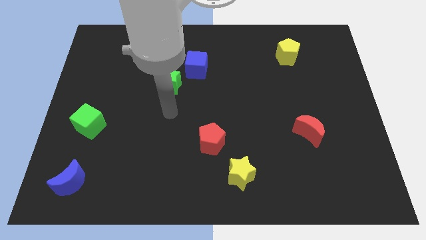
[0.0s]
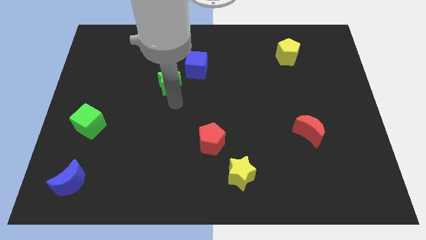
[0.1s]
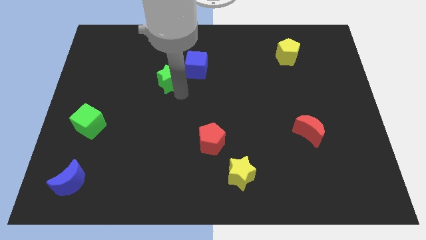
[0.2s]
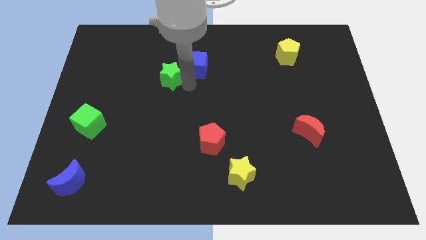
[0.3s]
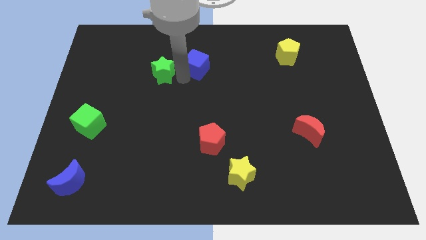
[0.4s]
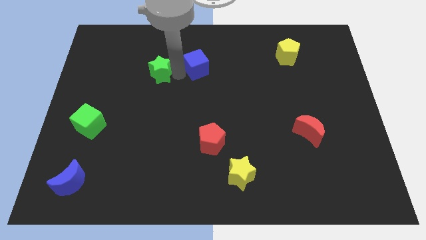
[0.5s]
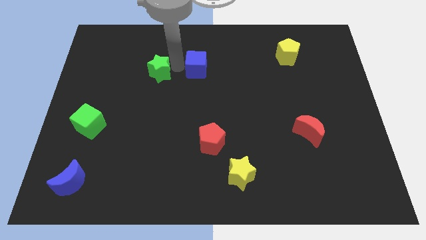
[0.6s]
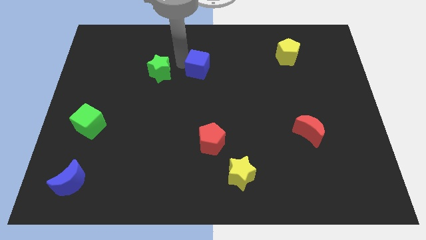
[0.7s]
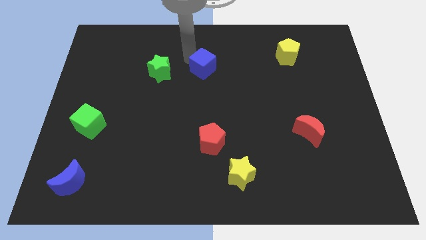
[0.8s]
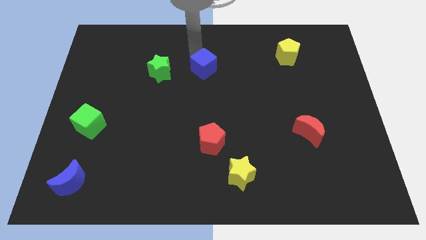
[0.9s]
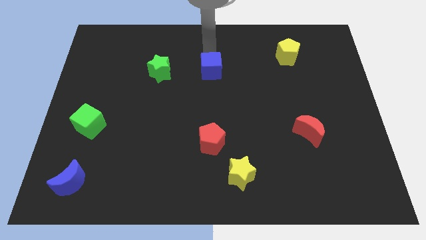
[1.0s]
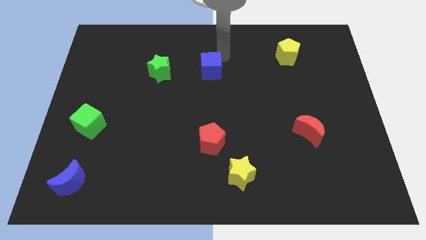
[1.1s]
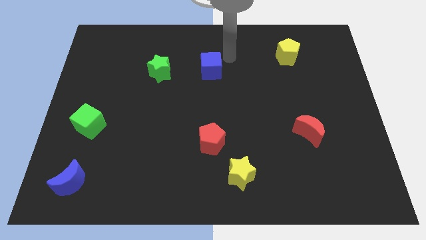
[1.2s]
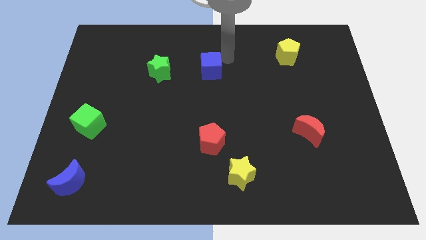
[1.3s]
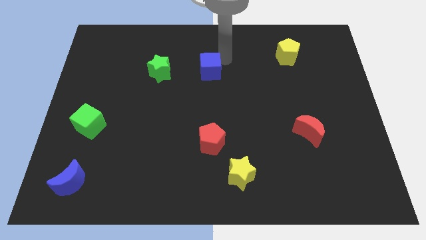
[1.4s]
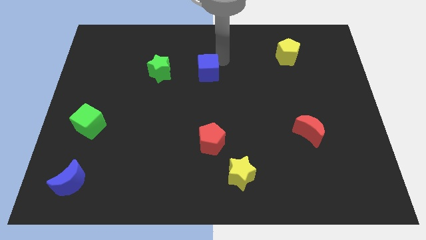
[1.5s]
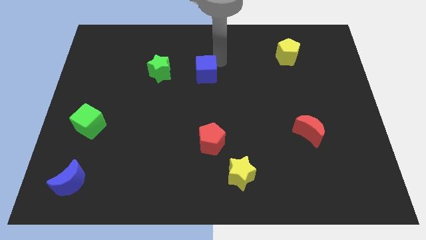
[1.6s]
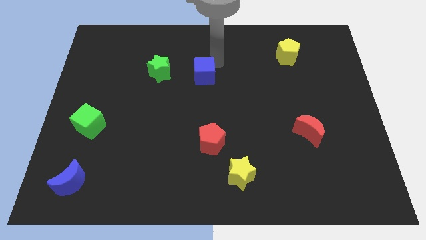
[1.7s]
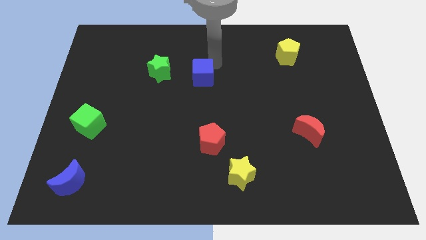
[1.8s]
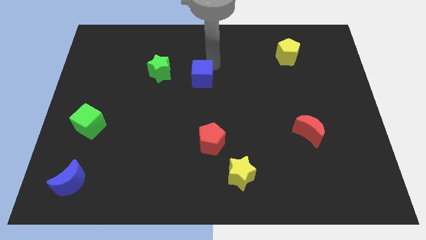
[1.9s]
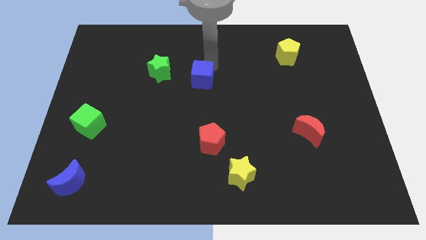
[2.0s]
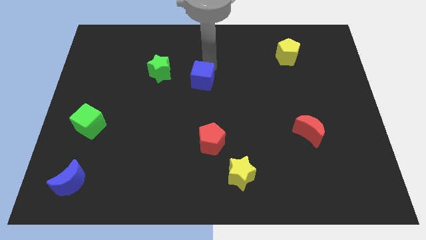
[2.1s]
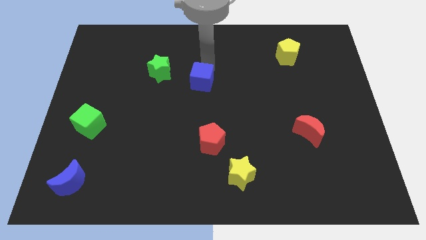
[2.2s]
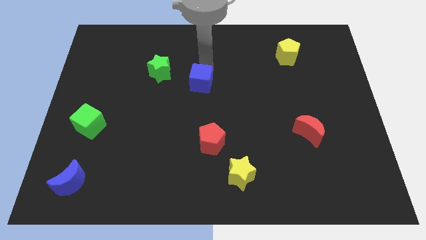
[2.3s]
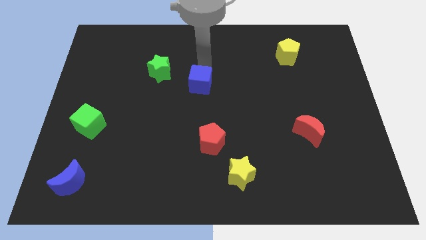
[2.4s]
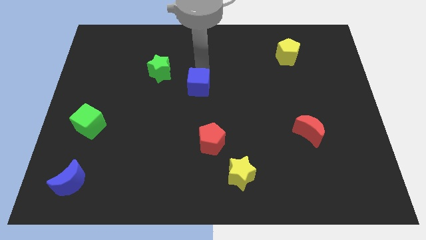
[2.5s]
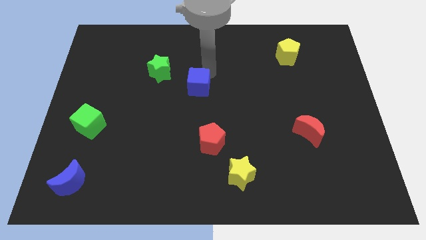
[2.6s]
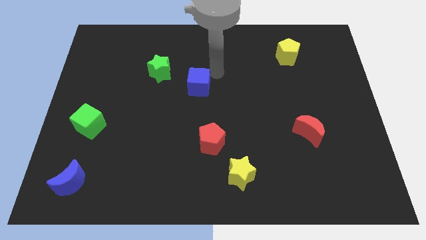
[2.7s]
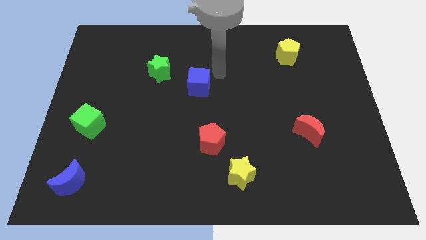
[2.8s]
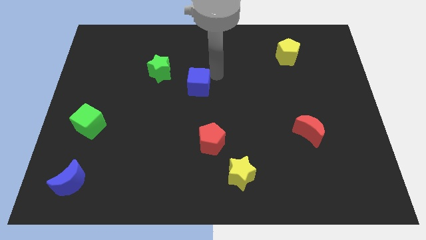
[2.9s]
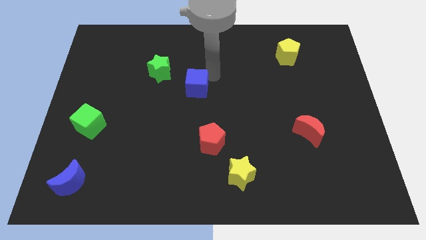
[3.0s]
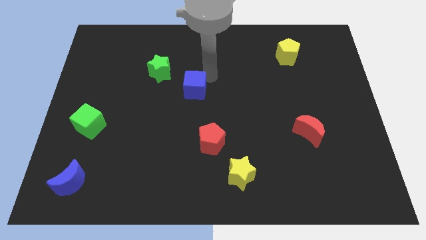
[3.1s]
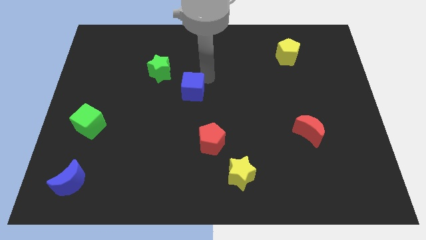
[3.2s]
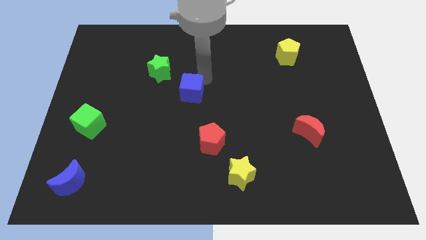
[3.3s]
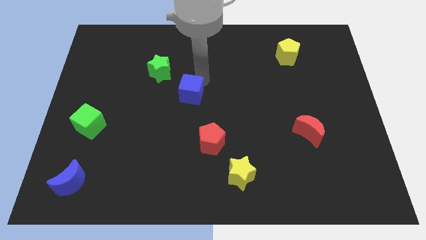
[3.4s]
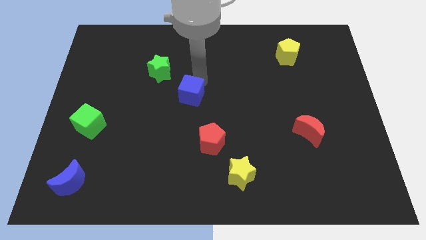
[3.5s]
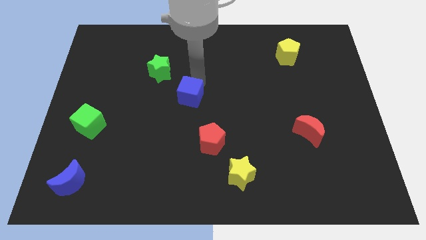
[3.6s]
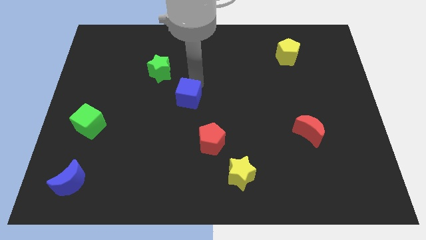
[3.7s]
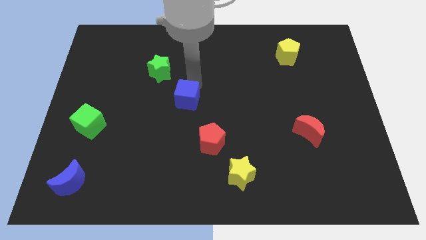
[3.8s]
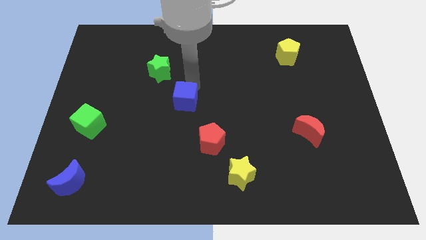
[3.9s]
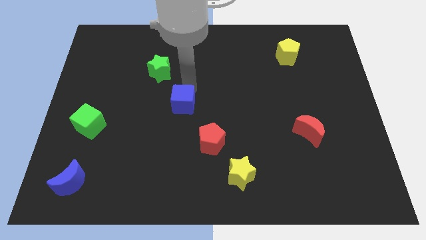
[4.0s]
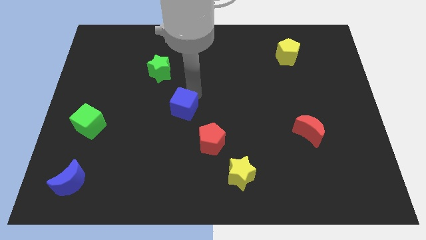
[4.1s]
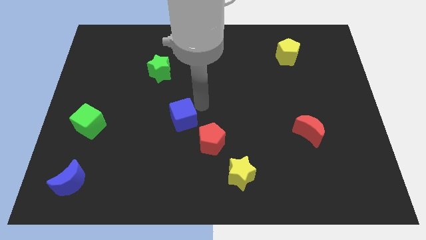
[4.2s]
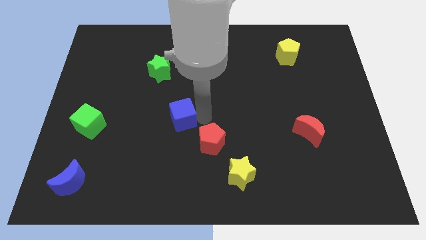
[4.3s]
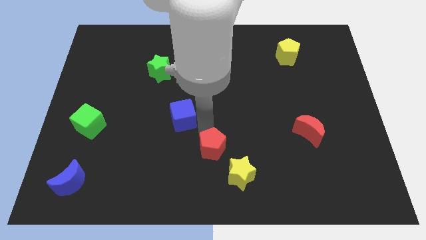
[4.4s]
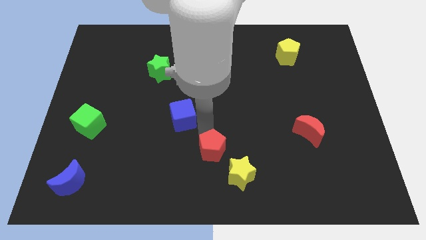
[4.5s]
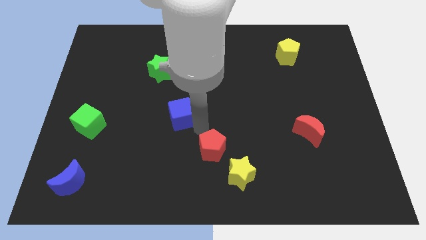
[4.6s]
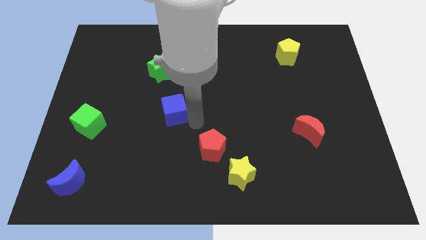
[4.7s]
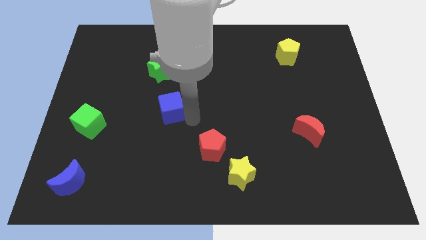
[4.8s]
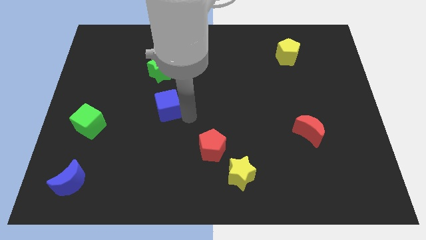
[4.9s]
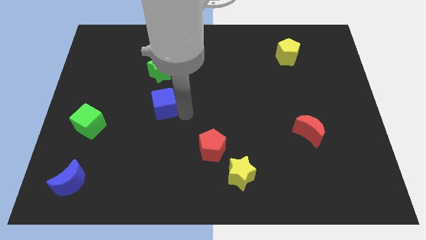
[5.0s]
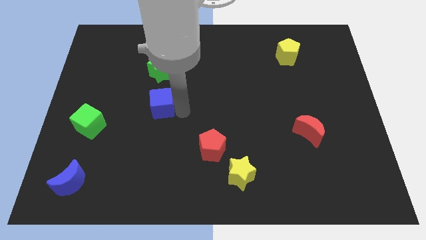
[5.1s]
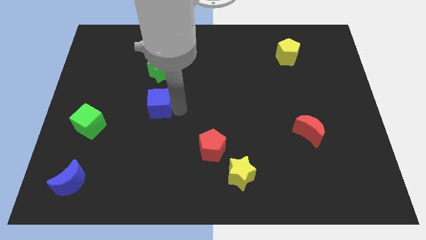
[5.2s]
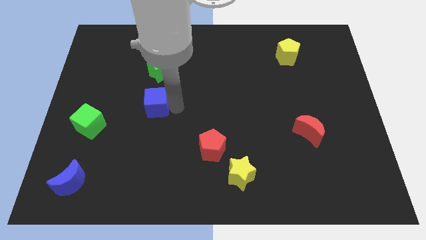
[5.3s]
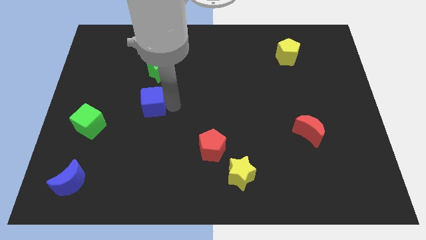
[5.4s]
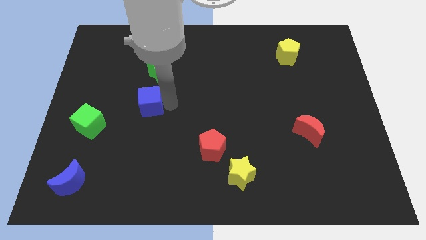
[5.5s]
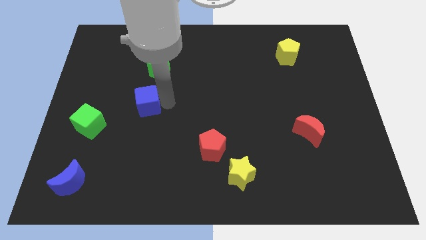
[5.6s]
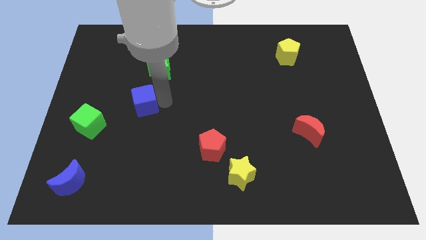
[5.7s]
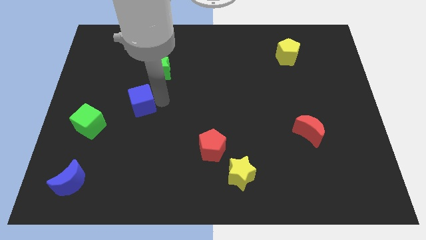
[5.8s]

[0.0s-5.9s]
move the blue cube to the bottom left of the green star

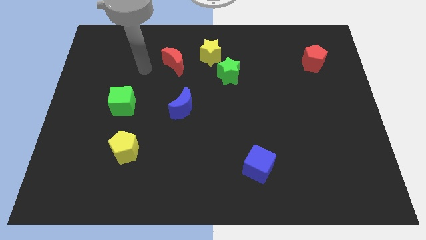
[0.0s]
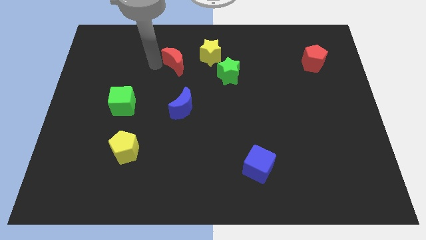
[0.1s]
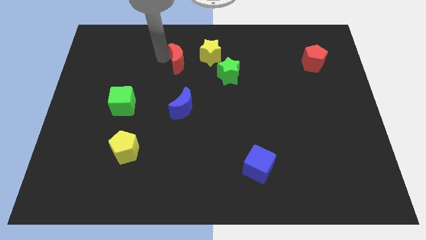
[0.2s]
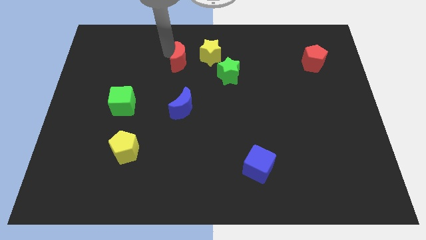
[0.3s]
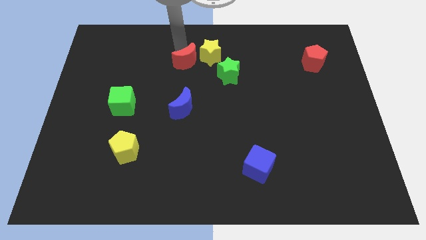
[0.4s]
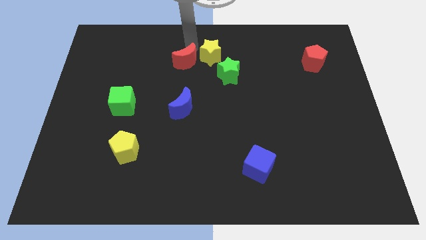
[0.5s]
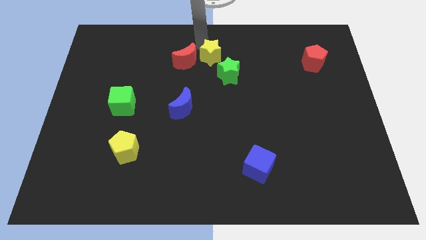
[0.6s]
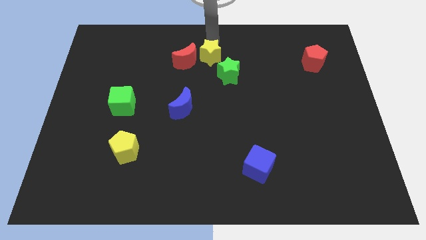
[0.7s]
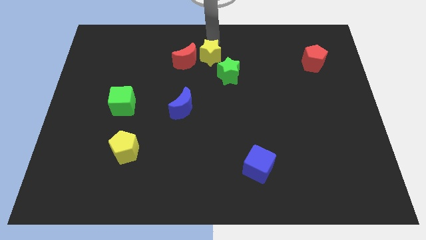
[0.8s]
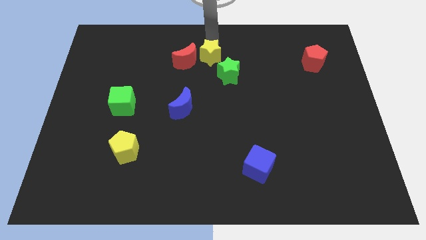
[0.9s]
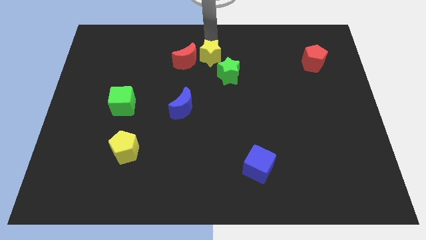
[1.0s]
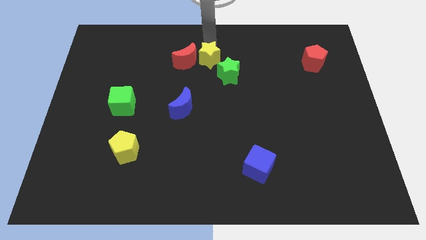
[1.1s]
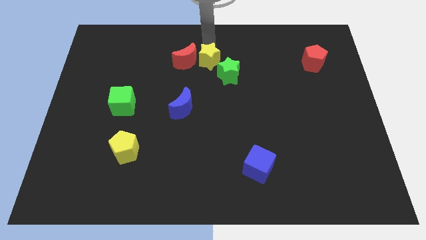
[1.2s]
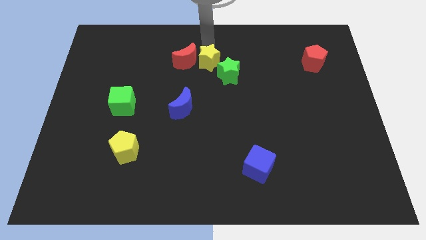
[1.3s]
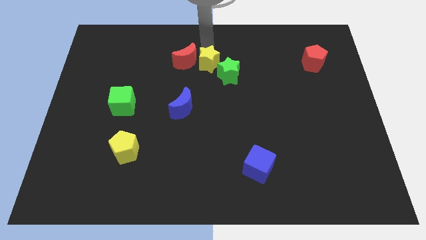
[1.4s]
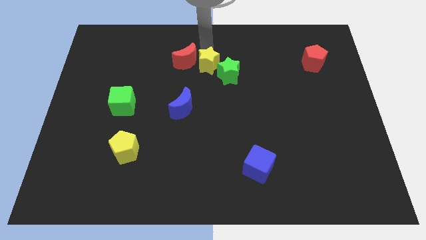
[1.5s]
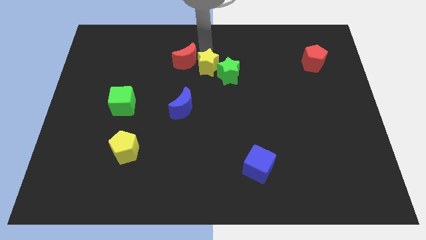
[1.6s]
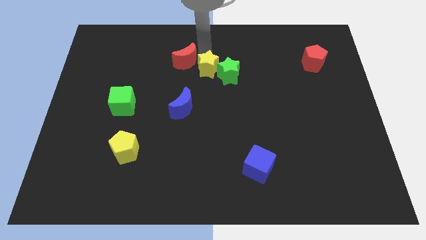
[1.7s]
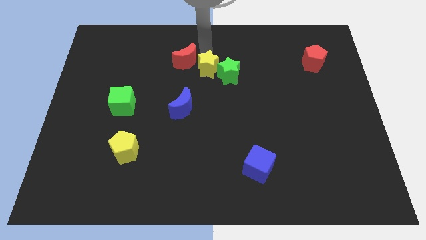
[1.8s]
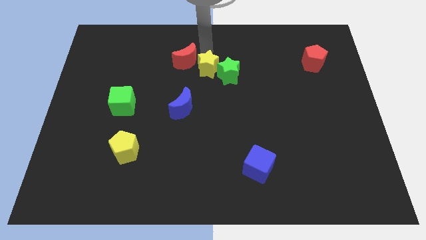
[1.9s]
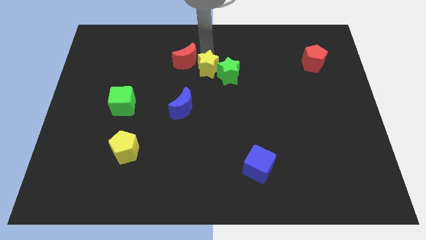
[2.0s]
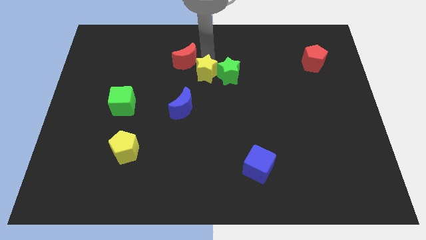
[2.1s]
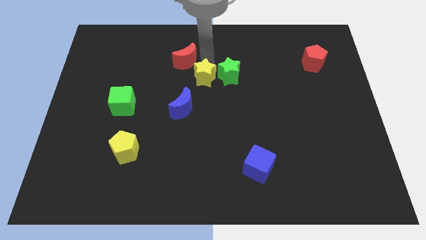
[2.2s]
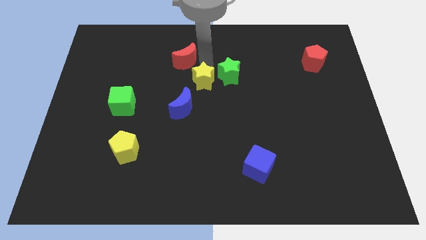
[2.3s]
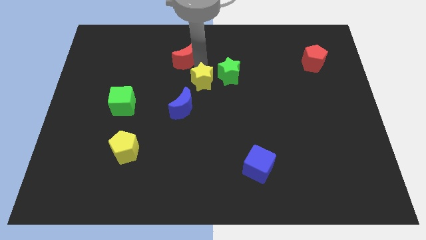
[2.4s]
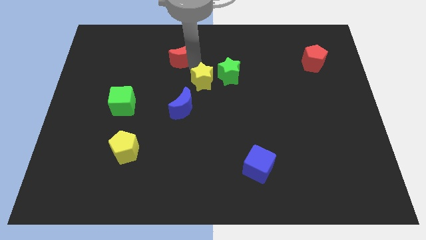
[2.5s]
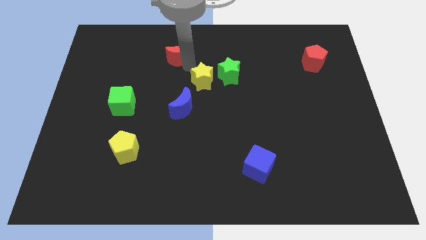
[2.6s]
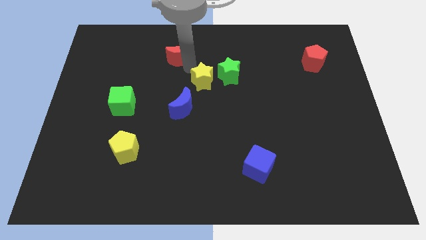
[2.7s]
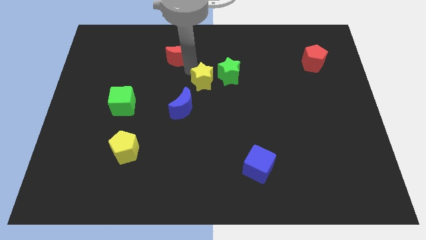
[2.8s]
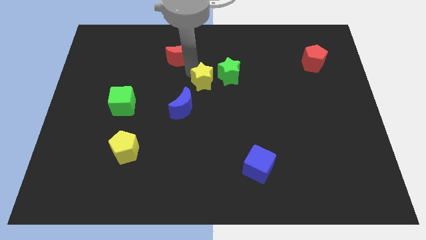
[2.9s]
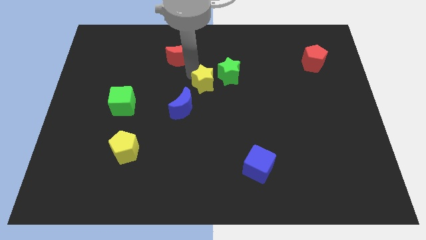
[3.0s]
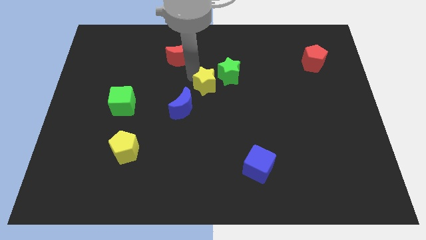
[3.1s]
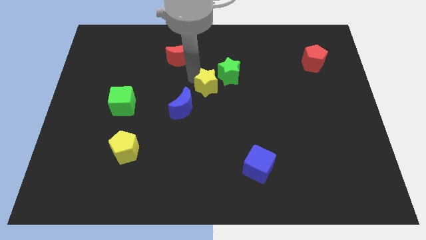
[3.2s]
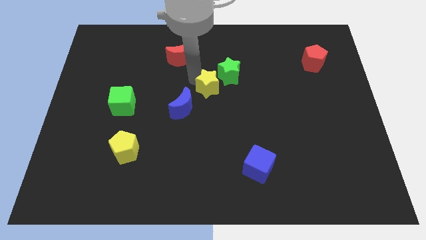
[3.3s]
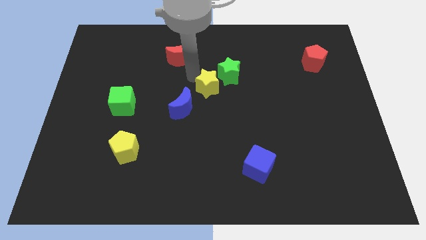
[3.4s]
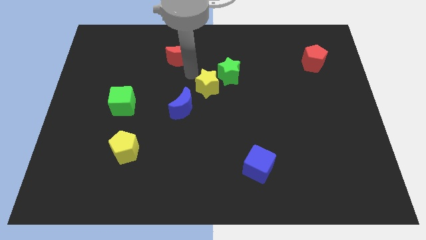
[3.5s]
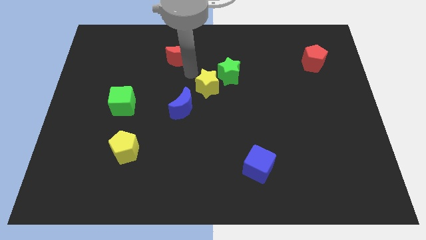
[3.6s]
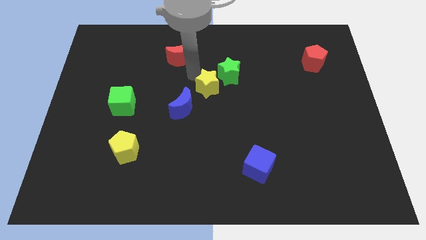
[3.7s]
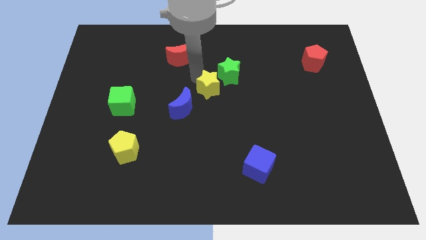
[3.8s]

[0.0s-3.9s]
push the yellow star to the bottom side of the green star
